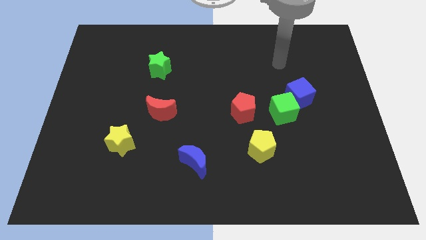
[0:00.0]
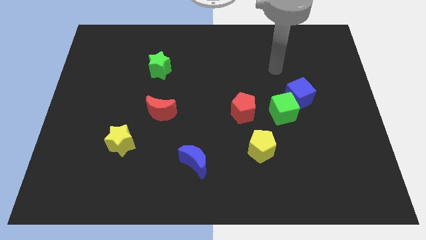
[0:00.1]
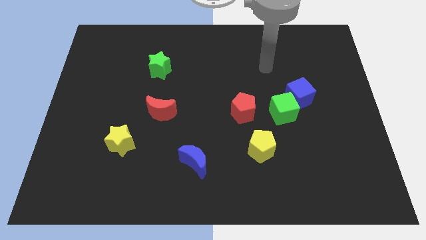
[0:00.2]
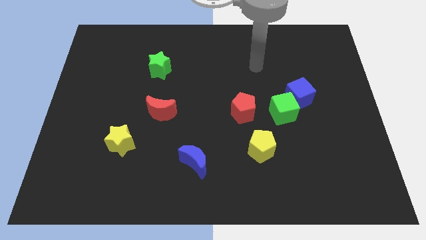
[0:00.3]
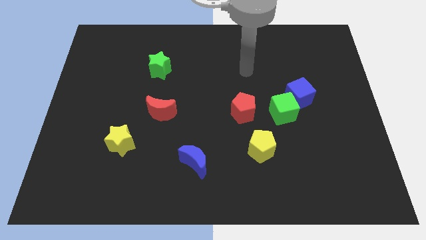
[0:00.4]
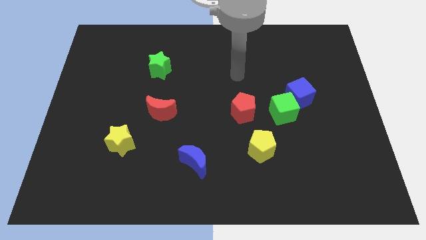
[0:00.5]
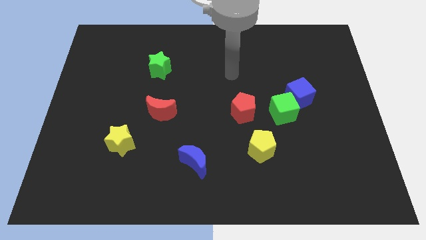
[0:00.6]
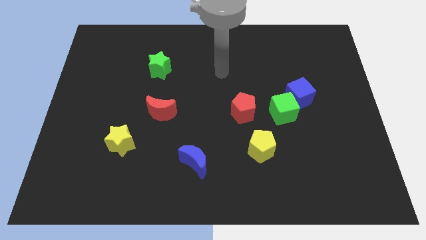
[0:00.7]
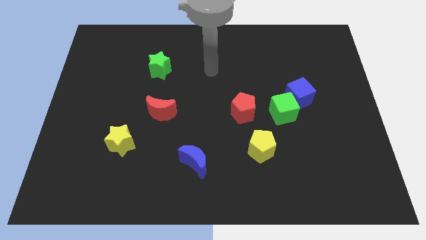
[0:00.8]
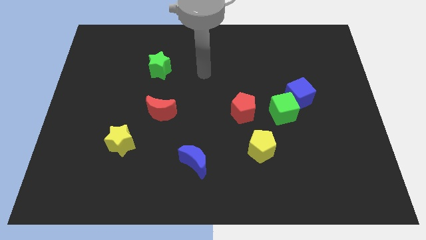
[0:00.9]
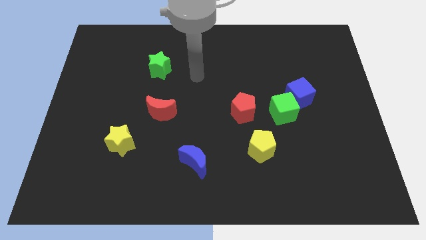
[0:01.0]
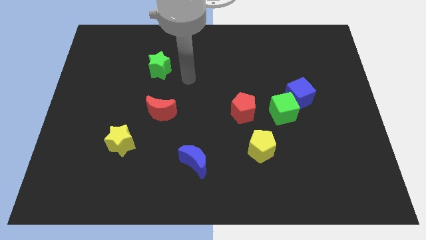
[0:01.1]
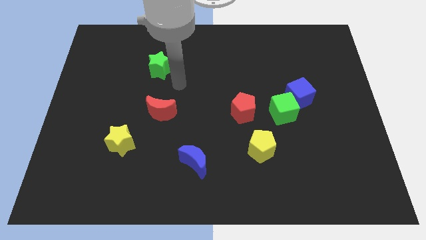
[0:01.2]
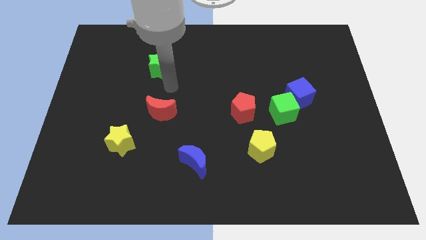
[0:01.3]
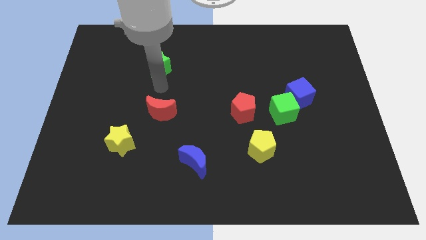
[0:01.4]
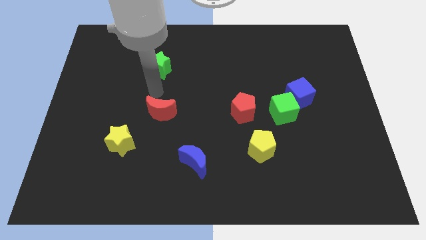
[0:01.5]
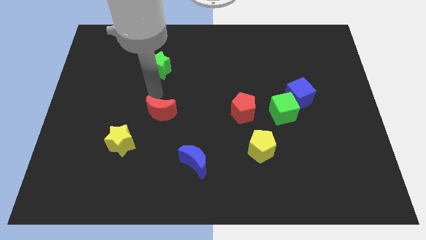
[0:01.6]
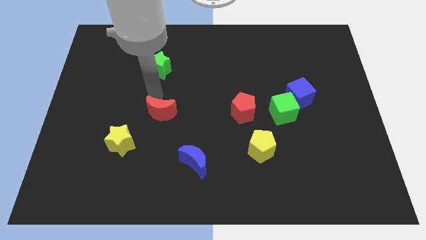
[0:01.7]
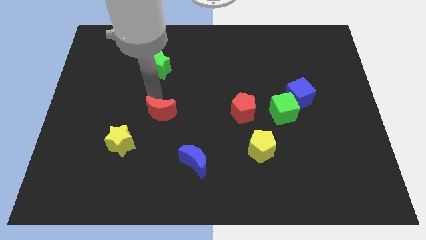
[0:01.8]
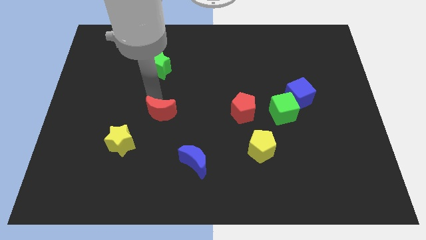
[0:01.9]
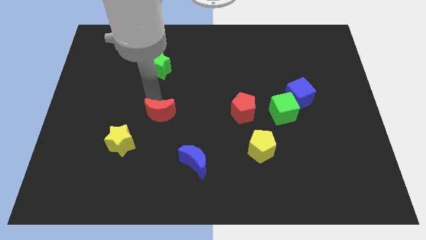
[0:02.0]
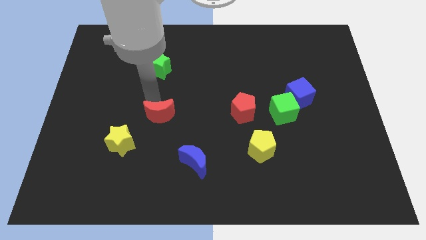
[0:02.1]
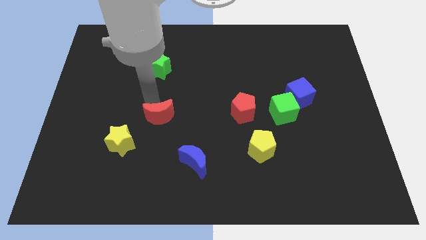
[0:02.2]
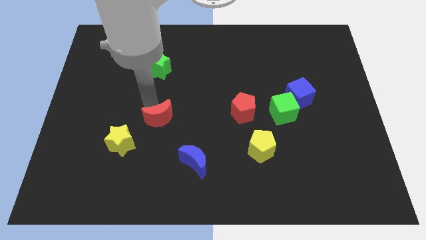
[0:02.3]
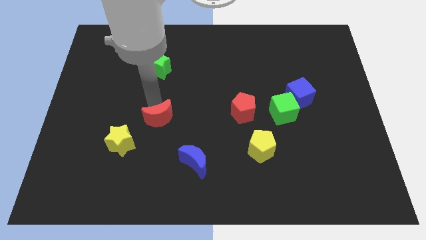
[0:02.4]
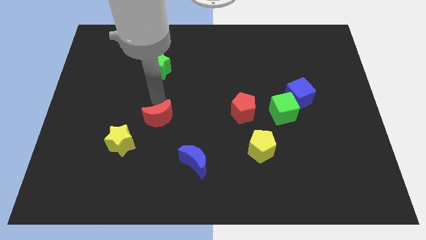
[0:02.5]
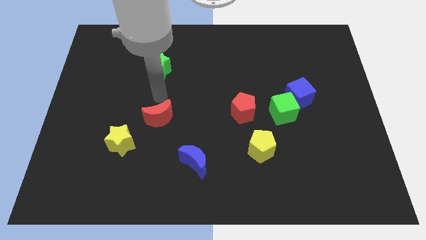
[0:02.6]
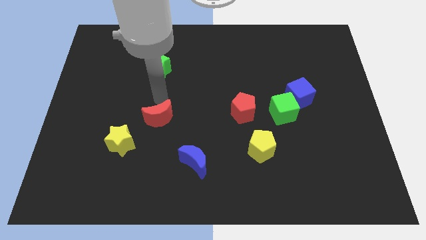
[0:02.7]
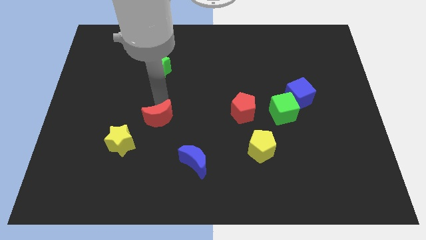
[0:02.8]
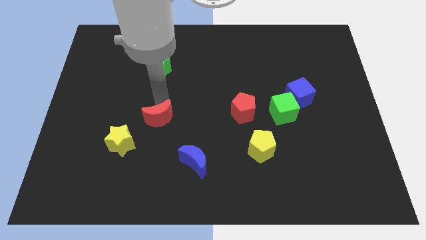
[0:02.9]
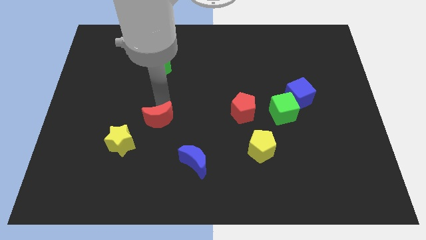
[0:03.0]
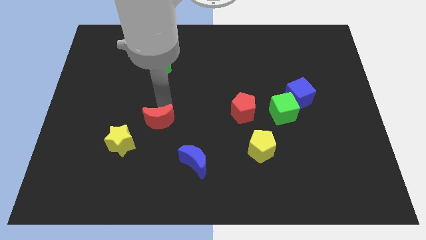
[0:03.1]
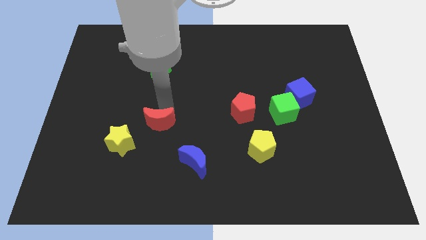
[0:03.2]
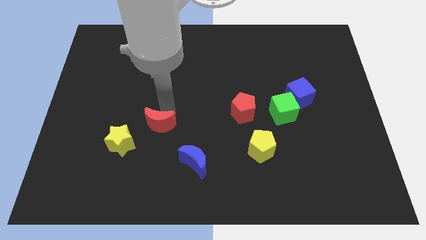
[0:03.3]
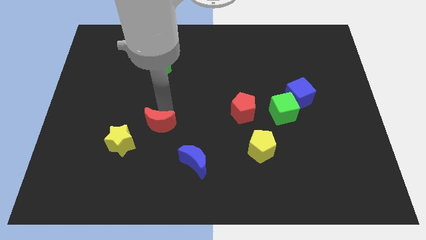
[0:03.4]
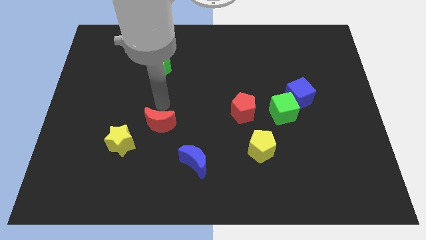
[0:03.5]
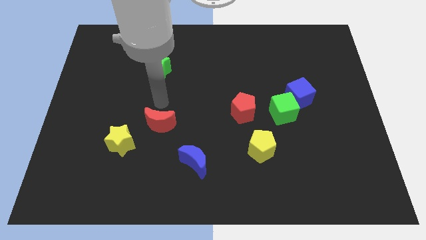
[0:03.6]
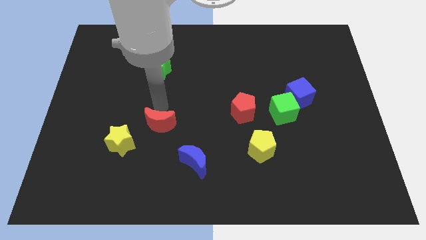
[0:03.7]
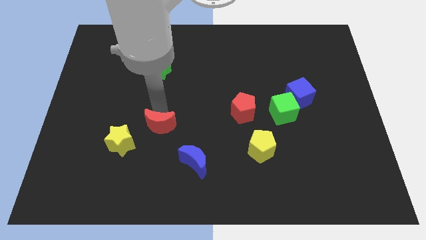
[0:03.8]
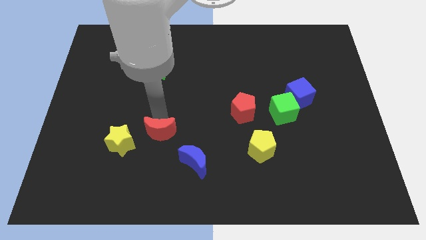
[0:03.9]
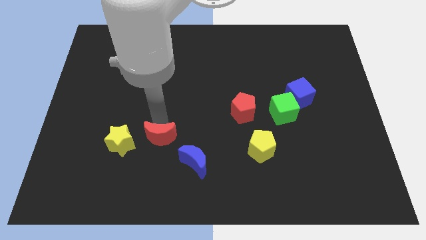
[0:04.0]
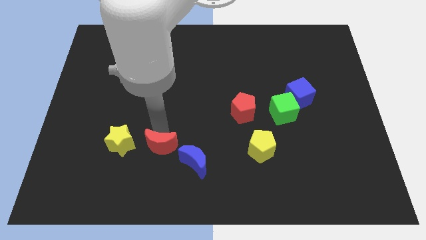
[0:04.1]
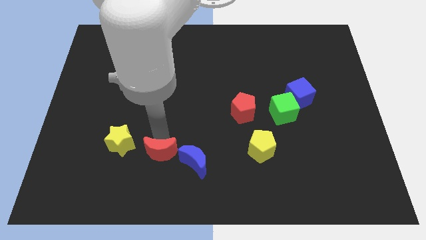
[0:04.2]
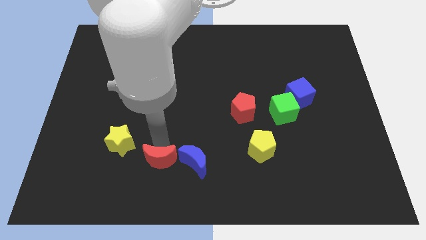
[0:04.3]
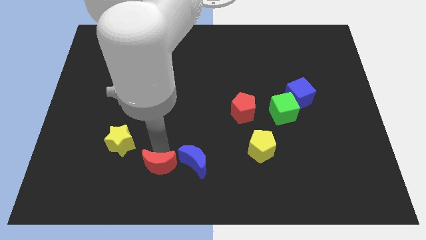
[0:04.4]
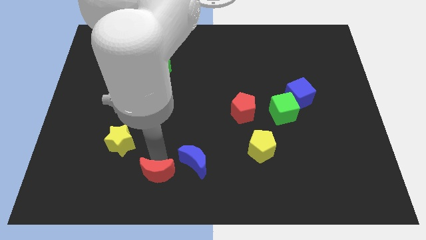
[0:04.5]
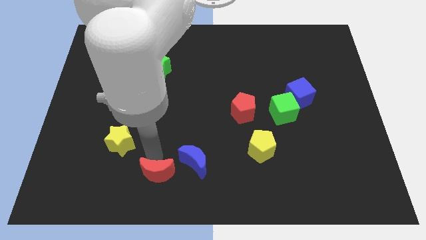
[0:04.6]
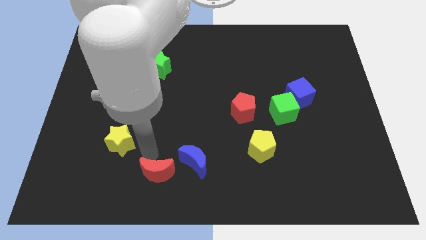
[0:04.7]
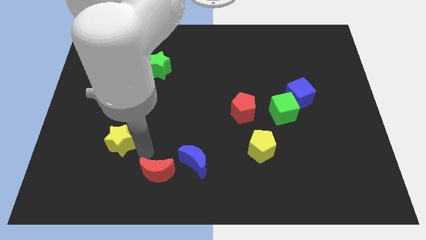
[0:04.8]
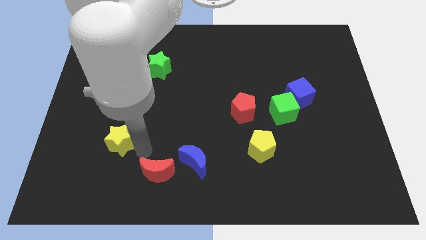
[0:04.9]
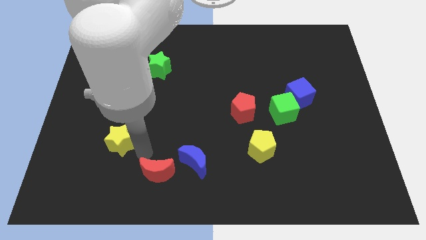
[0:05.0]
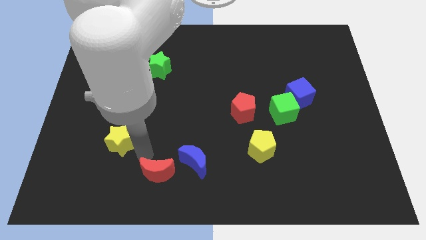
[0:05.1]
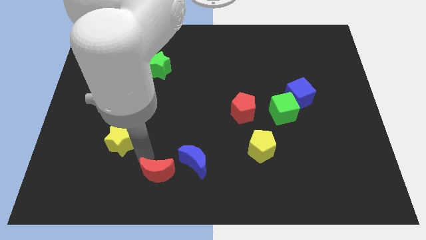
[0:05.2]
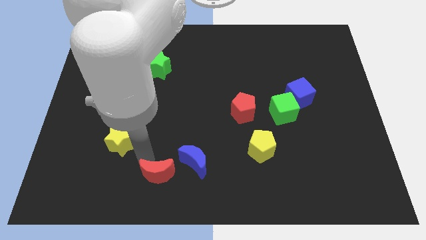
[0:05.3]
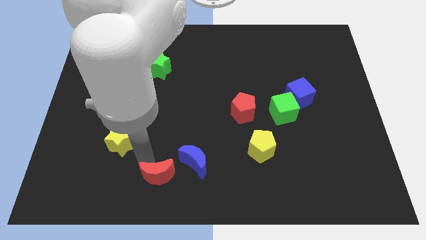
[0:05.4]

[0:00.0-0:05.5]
push the red moon to the bottom

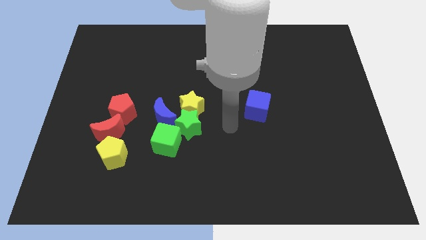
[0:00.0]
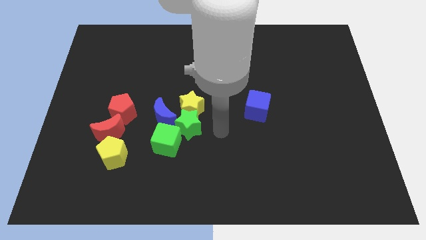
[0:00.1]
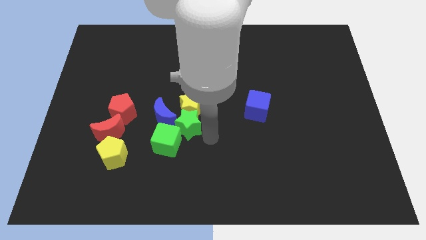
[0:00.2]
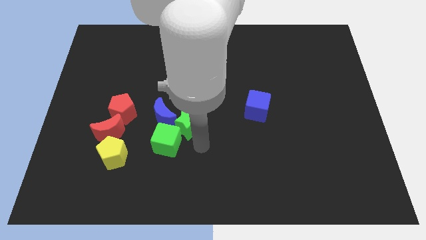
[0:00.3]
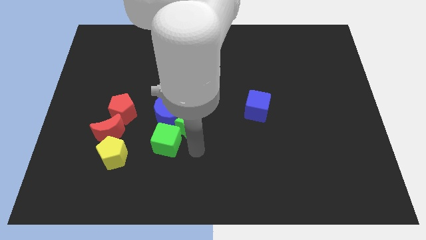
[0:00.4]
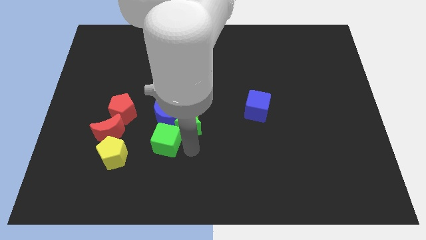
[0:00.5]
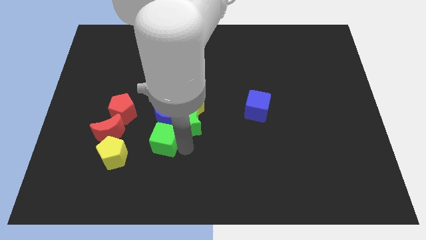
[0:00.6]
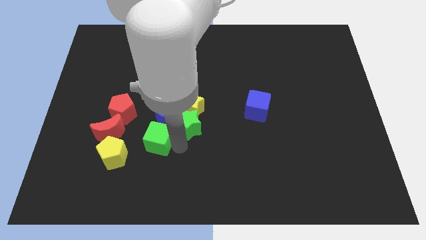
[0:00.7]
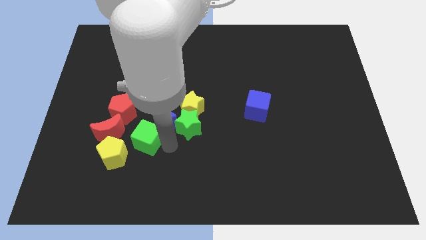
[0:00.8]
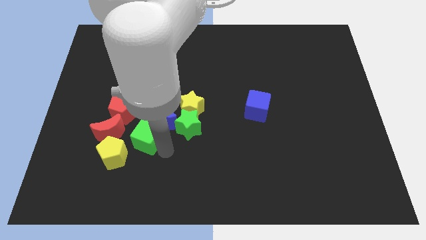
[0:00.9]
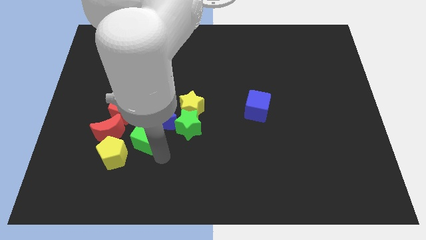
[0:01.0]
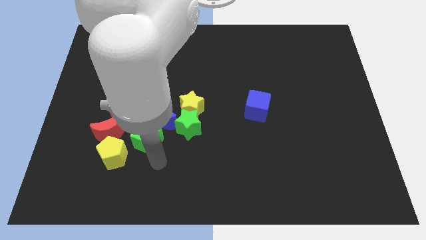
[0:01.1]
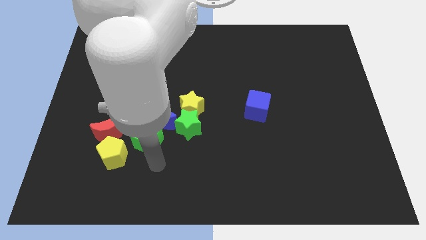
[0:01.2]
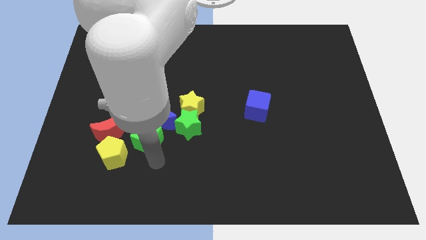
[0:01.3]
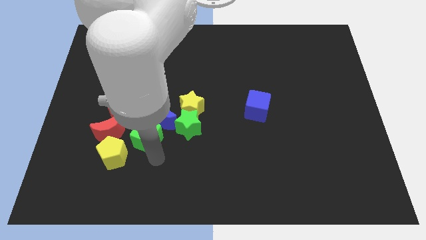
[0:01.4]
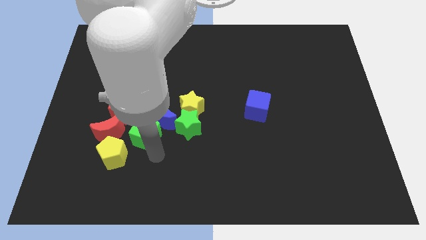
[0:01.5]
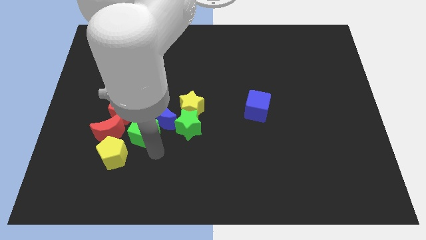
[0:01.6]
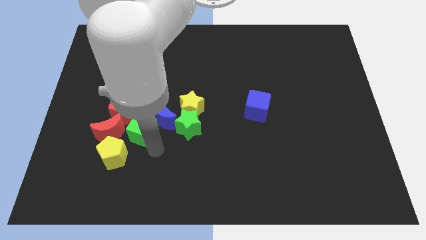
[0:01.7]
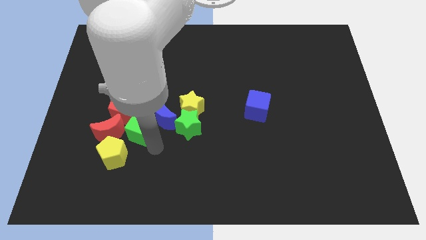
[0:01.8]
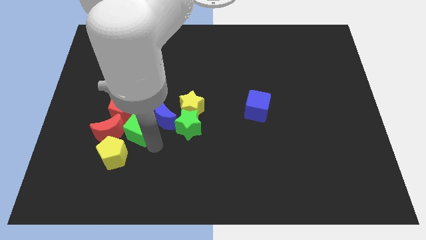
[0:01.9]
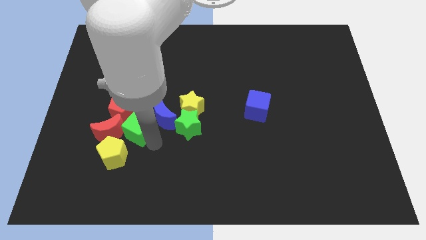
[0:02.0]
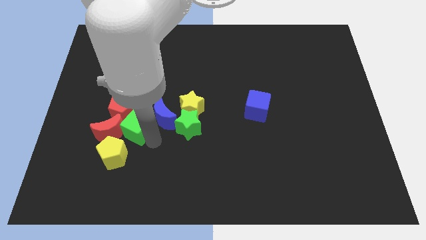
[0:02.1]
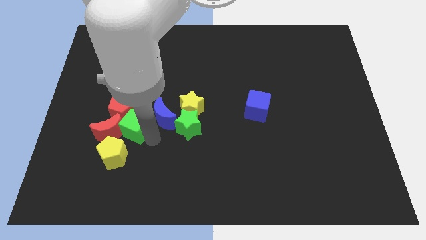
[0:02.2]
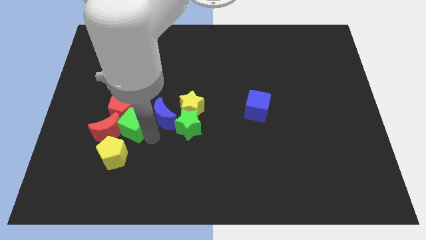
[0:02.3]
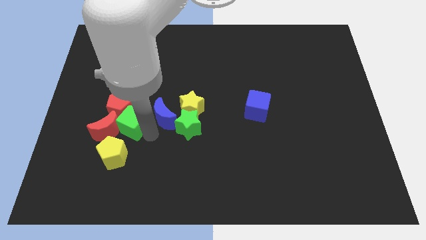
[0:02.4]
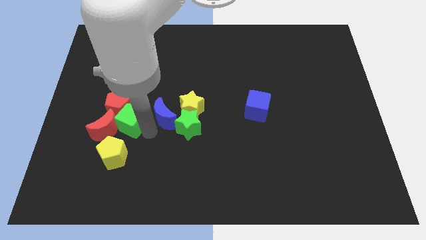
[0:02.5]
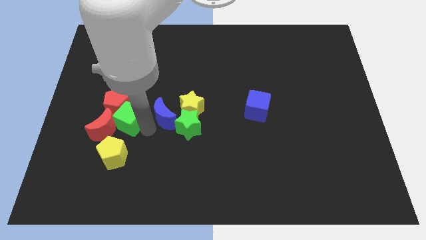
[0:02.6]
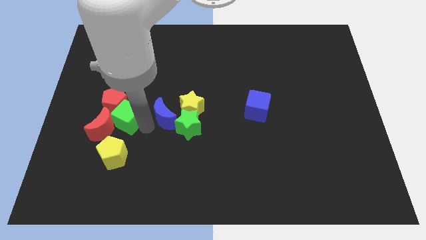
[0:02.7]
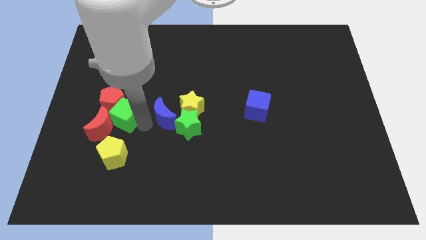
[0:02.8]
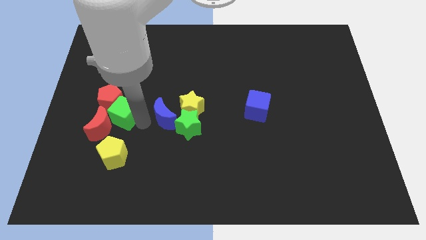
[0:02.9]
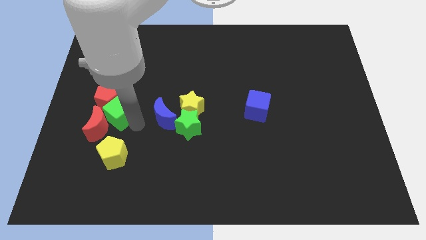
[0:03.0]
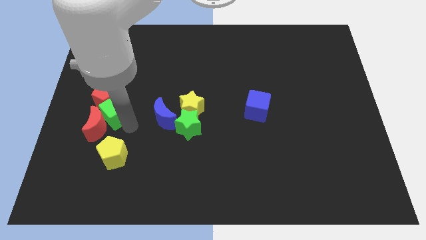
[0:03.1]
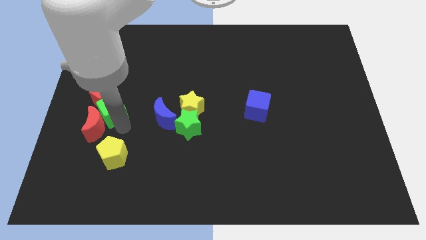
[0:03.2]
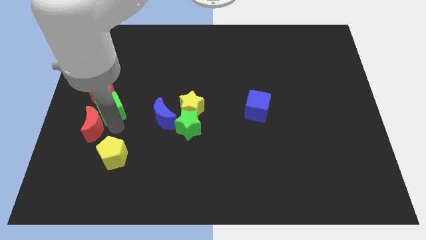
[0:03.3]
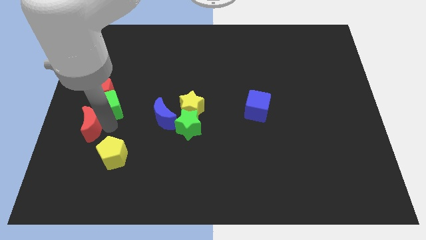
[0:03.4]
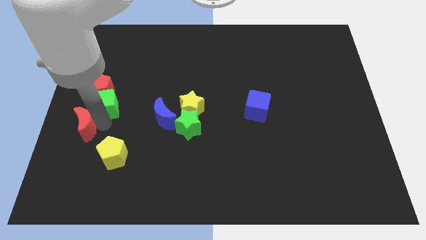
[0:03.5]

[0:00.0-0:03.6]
move the green cube to the left side of the board
